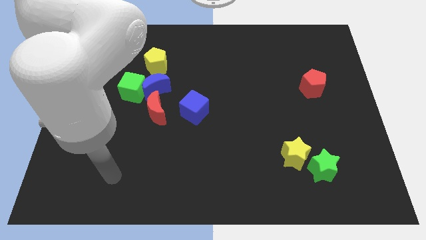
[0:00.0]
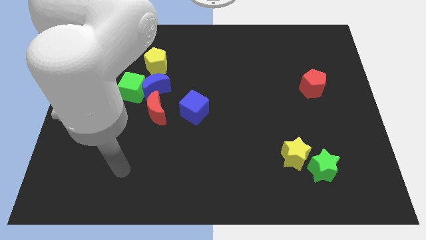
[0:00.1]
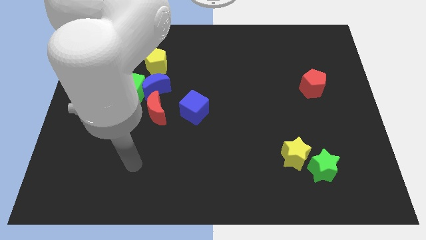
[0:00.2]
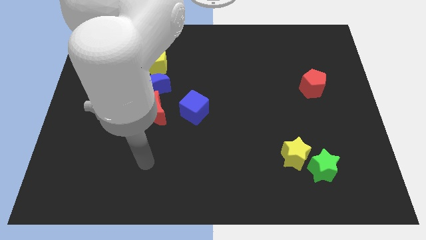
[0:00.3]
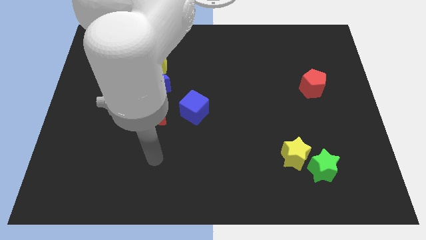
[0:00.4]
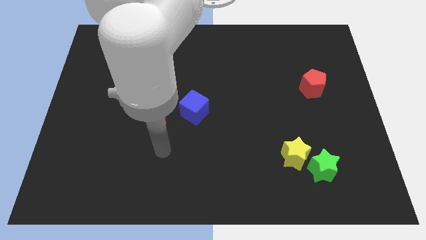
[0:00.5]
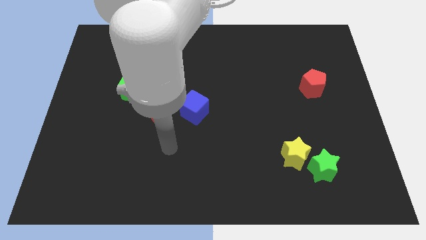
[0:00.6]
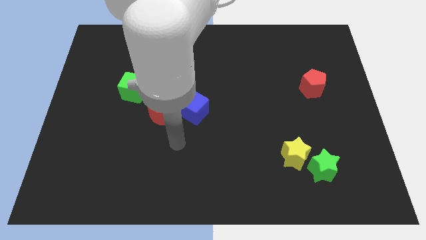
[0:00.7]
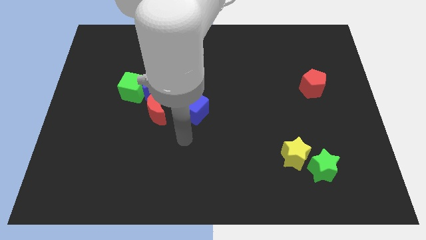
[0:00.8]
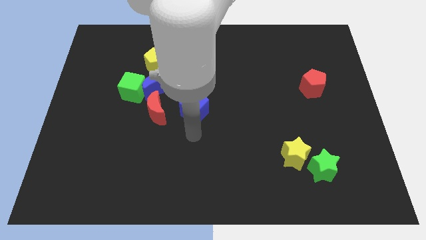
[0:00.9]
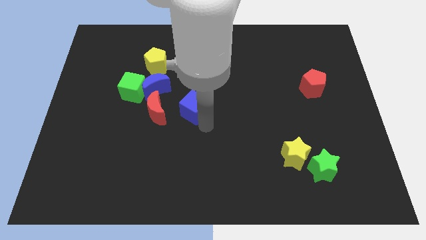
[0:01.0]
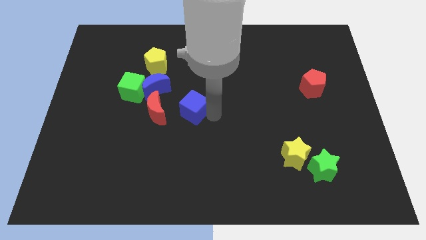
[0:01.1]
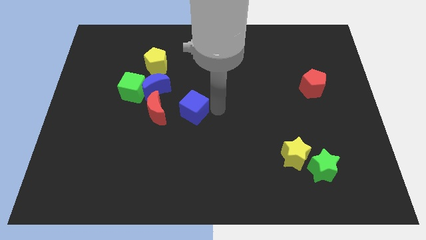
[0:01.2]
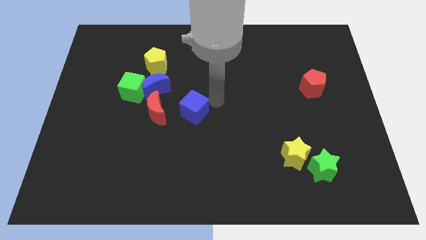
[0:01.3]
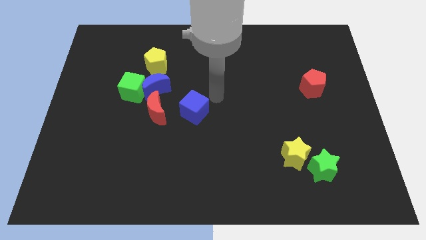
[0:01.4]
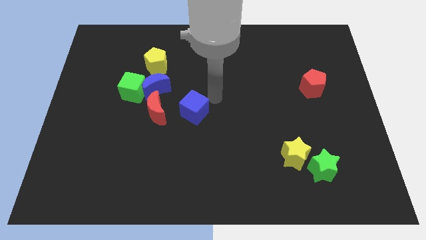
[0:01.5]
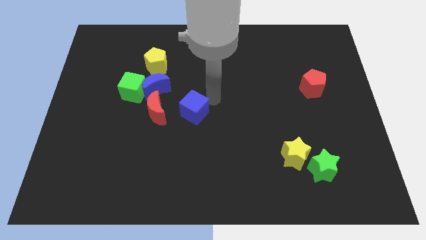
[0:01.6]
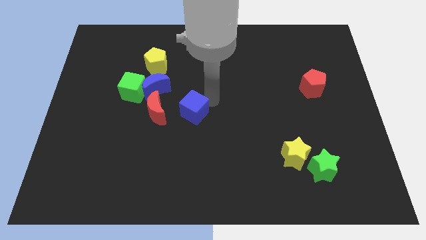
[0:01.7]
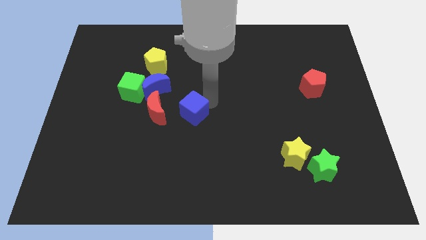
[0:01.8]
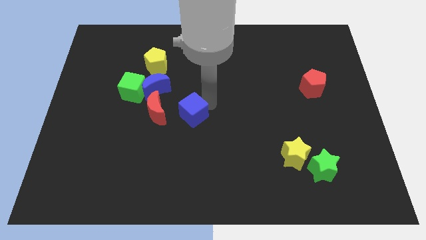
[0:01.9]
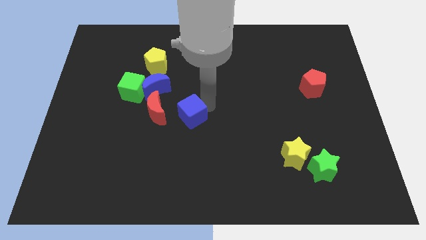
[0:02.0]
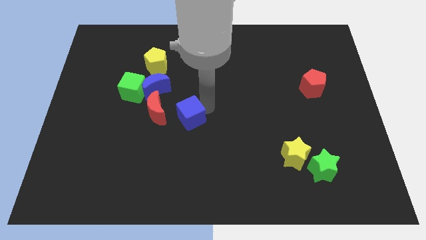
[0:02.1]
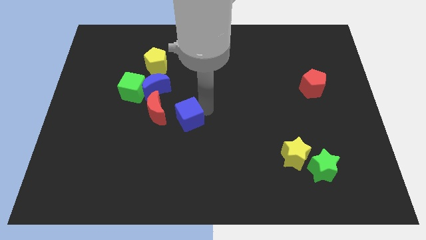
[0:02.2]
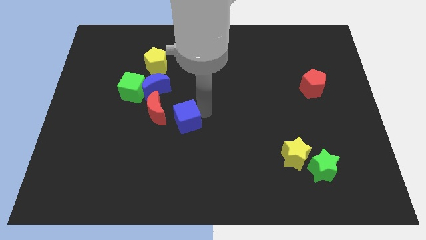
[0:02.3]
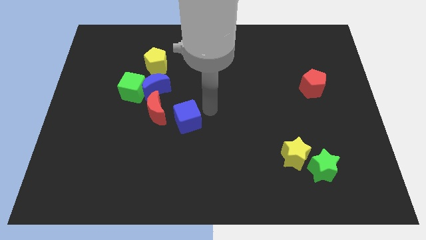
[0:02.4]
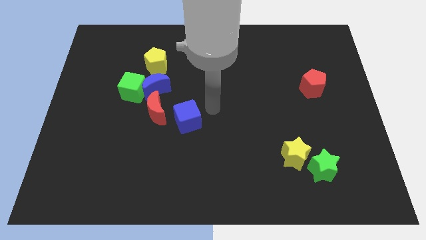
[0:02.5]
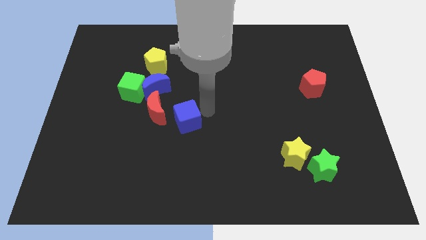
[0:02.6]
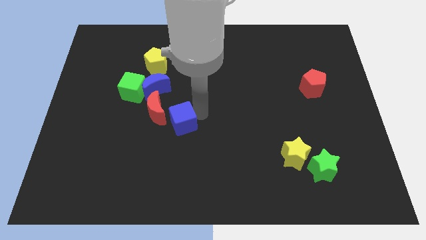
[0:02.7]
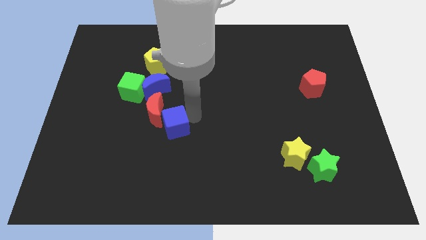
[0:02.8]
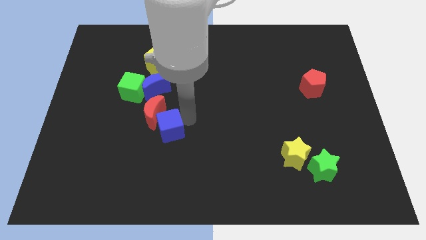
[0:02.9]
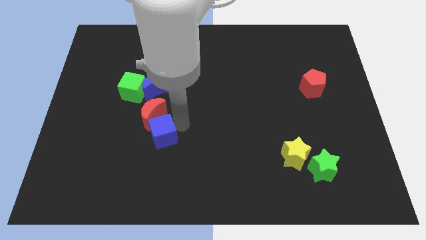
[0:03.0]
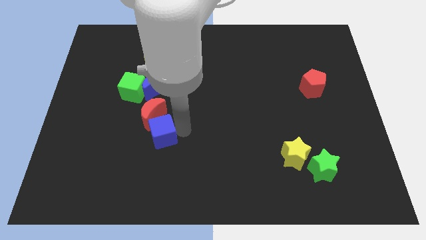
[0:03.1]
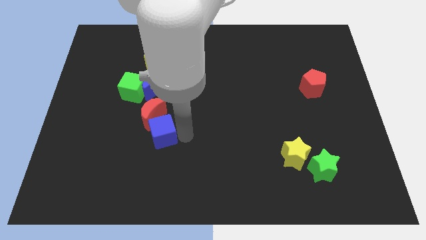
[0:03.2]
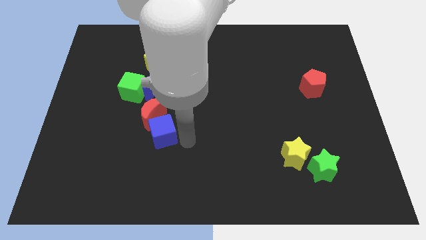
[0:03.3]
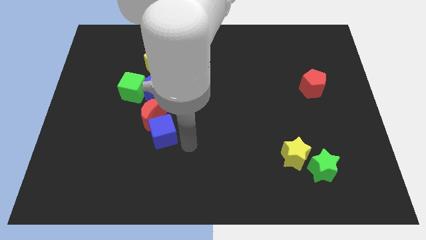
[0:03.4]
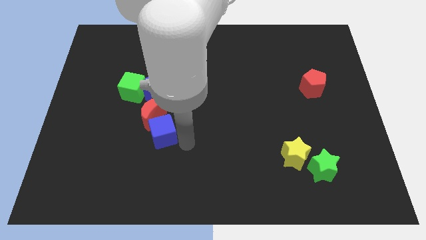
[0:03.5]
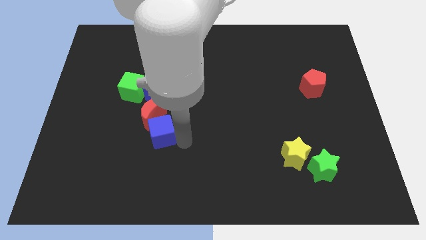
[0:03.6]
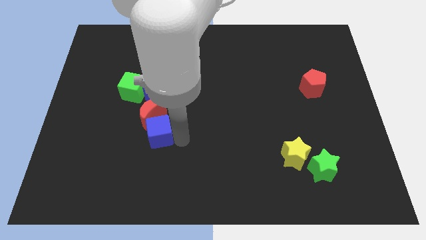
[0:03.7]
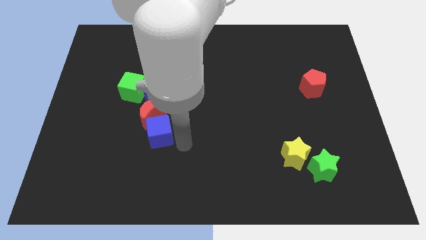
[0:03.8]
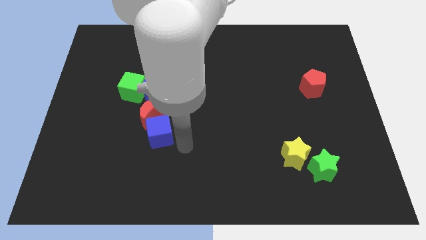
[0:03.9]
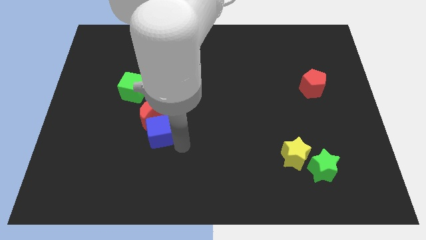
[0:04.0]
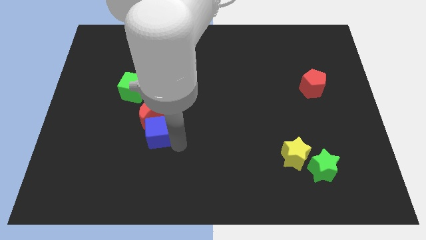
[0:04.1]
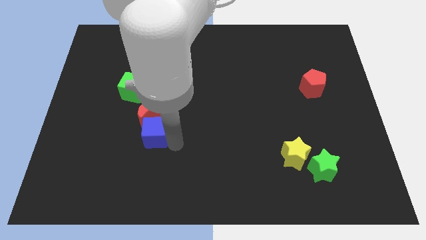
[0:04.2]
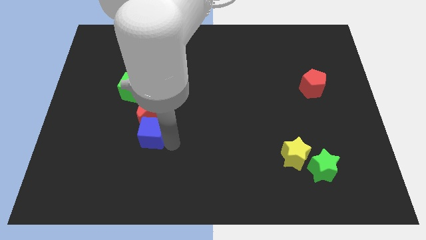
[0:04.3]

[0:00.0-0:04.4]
push the blue cube to the left somewhat

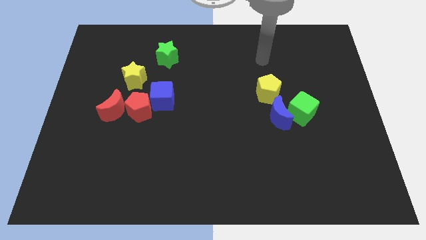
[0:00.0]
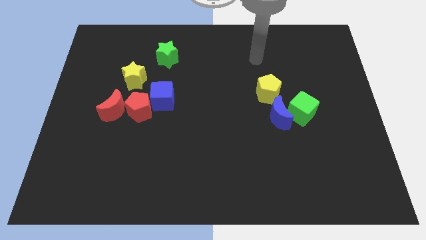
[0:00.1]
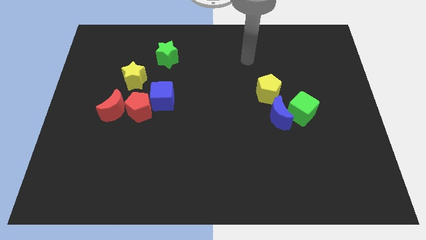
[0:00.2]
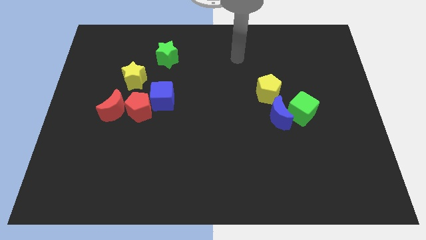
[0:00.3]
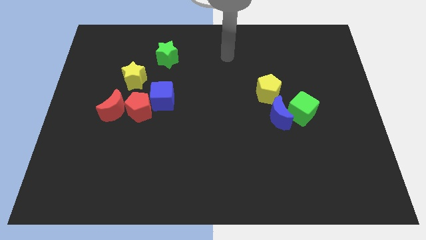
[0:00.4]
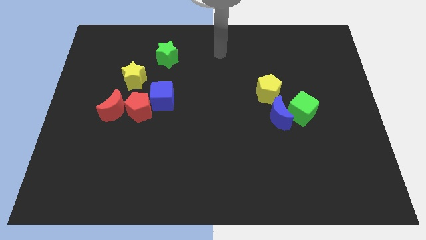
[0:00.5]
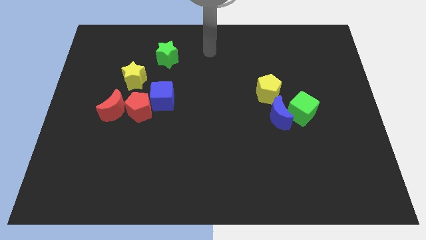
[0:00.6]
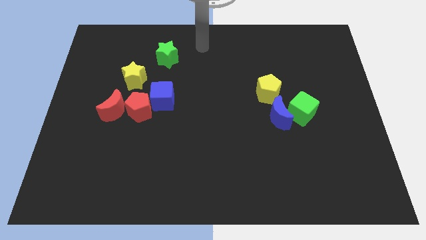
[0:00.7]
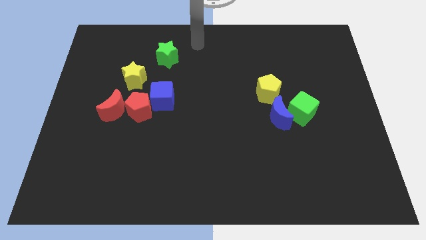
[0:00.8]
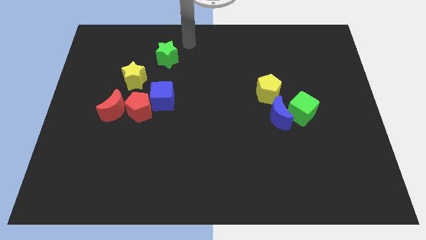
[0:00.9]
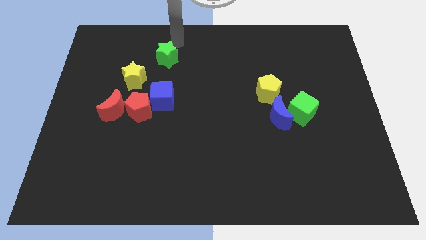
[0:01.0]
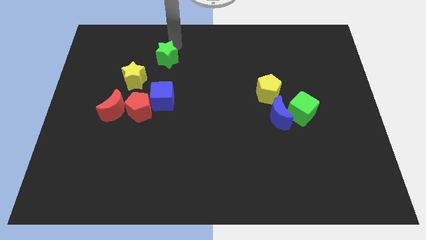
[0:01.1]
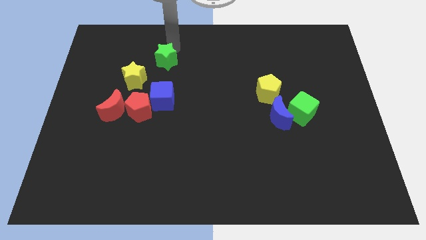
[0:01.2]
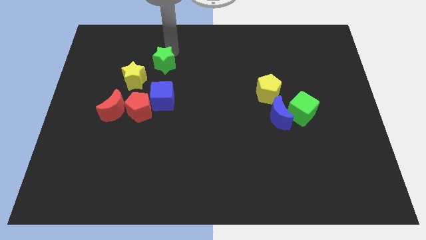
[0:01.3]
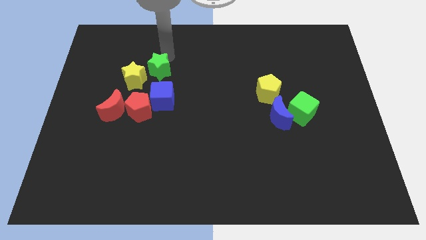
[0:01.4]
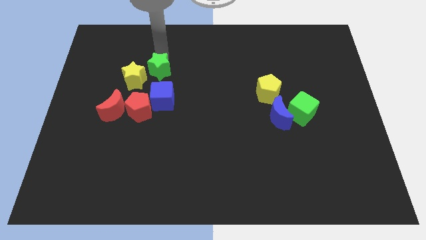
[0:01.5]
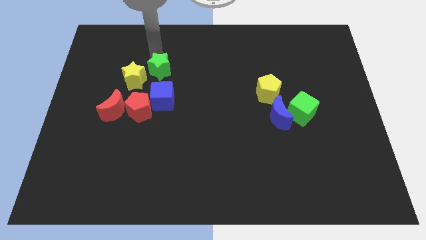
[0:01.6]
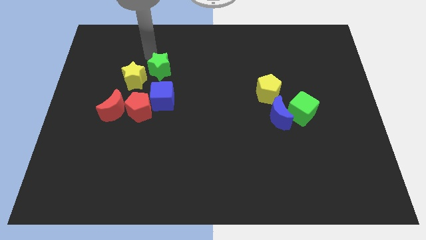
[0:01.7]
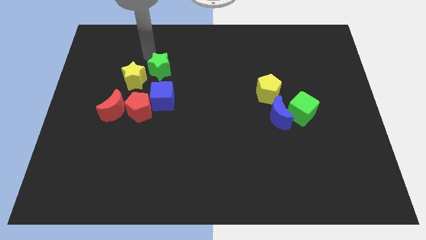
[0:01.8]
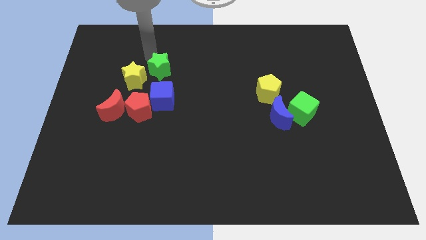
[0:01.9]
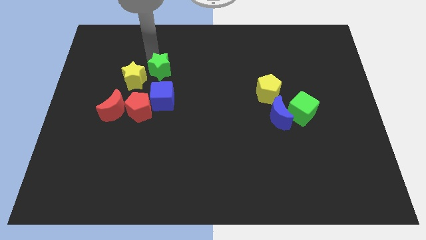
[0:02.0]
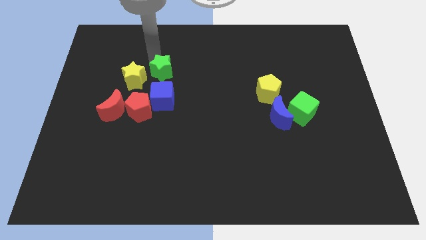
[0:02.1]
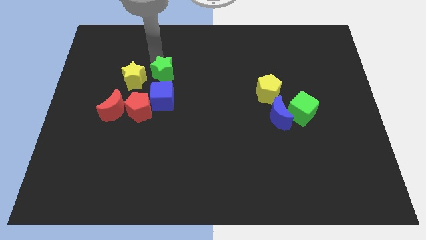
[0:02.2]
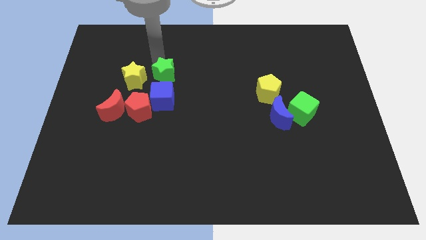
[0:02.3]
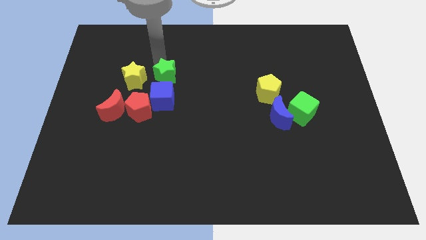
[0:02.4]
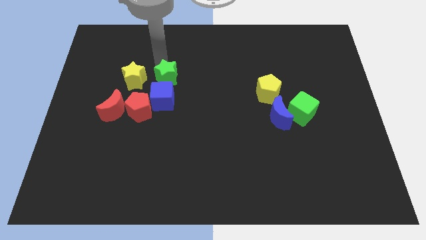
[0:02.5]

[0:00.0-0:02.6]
slide the green star downwards slightly

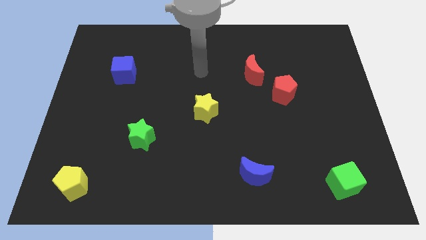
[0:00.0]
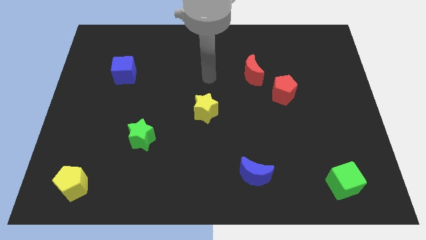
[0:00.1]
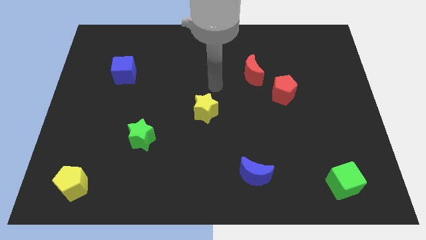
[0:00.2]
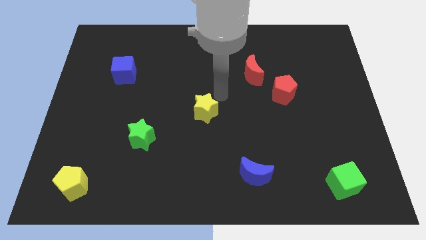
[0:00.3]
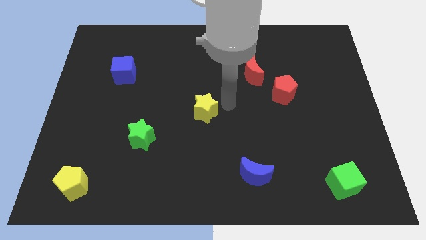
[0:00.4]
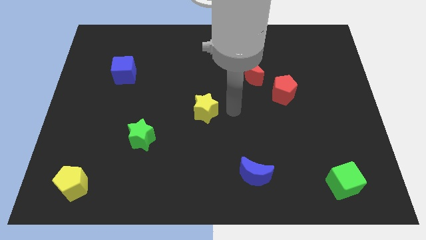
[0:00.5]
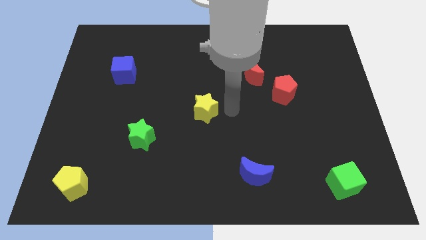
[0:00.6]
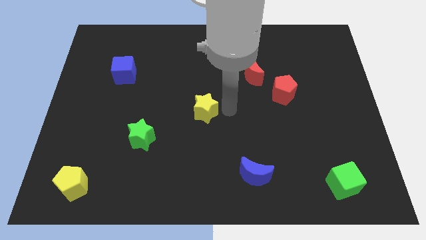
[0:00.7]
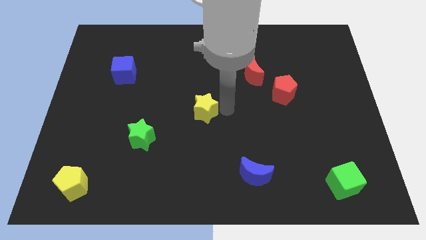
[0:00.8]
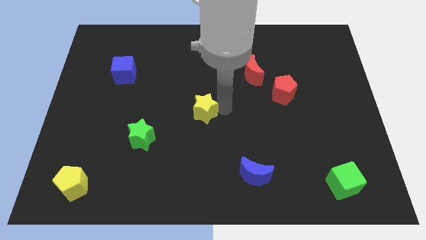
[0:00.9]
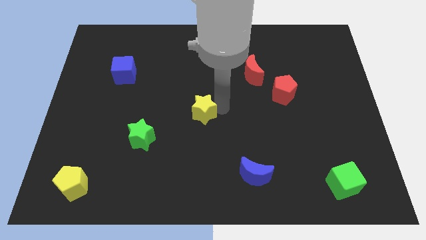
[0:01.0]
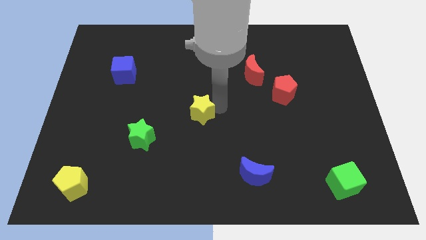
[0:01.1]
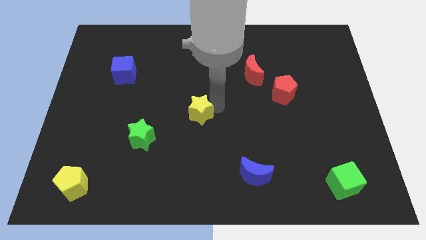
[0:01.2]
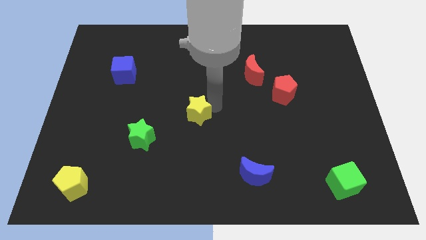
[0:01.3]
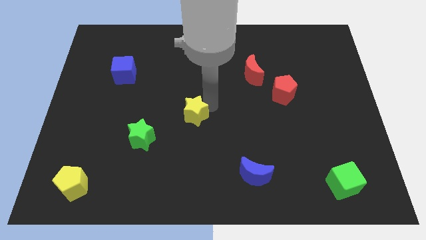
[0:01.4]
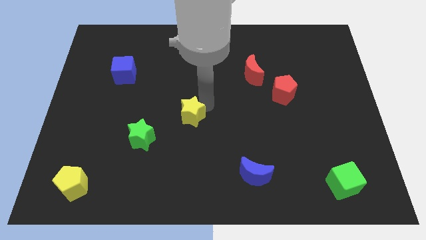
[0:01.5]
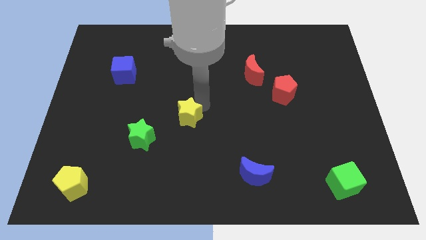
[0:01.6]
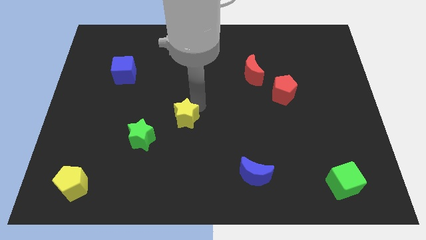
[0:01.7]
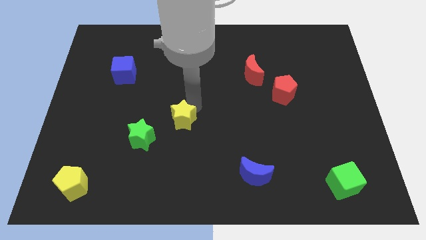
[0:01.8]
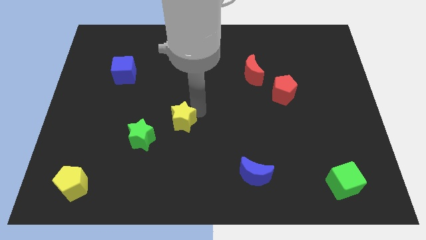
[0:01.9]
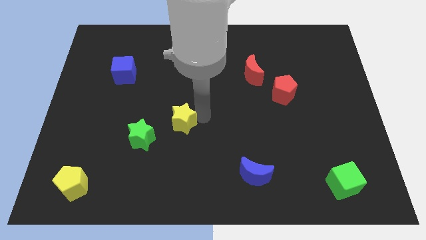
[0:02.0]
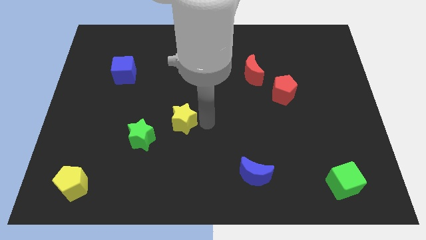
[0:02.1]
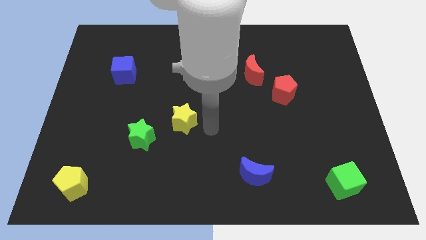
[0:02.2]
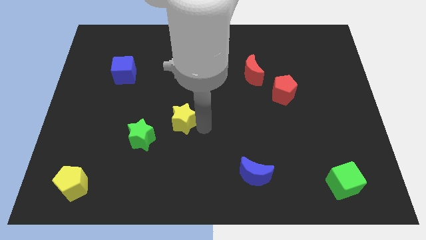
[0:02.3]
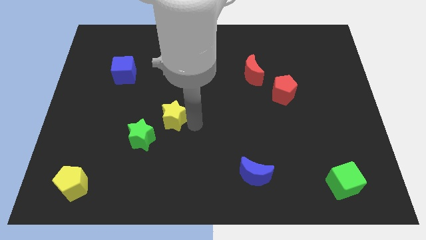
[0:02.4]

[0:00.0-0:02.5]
push the yellow star a little bit to the left
